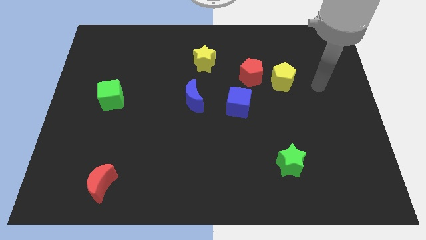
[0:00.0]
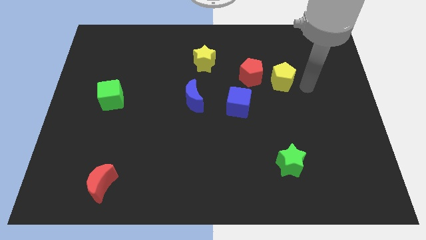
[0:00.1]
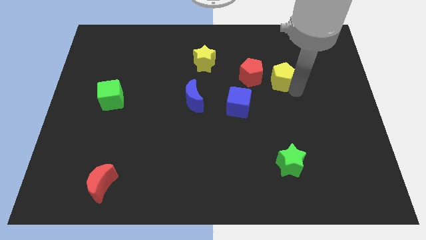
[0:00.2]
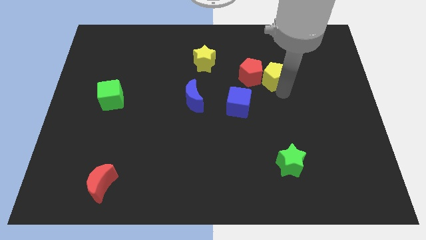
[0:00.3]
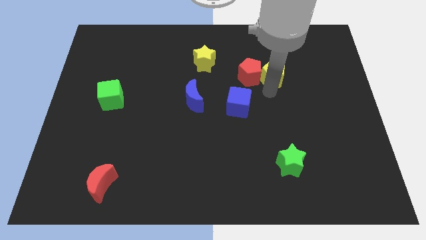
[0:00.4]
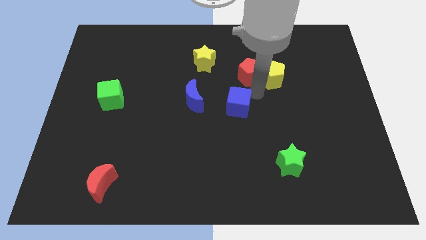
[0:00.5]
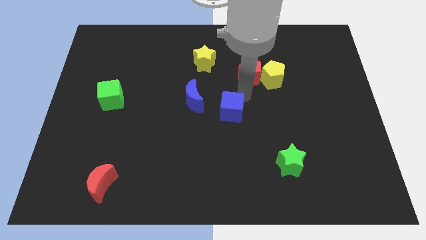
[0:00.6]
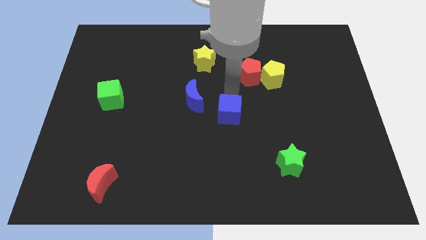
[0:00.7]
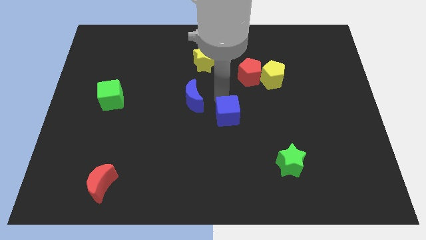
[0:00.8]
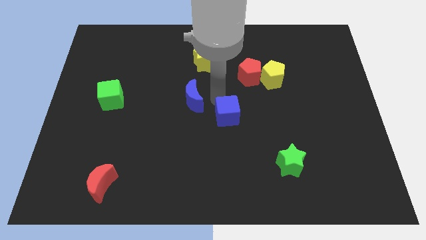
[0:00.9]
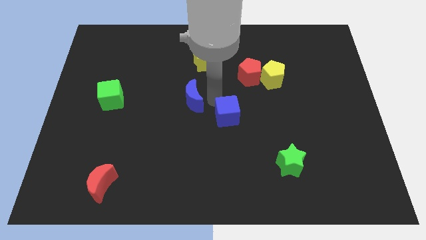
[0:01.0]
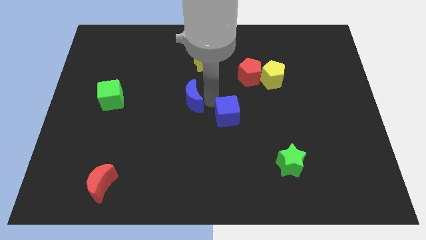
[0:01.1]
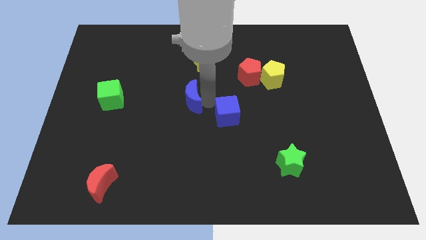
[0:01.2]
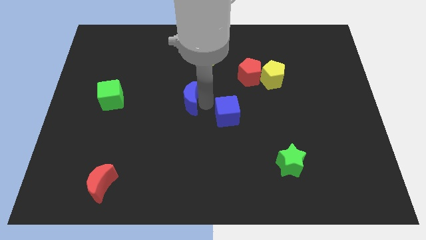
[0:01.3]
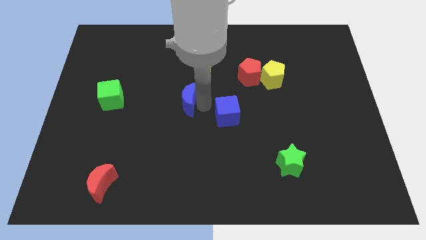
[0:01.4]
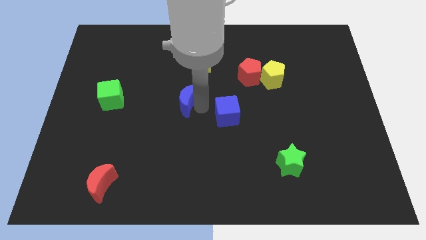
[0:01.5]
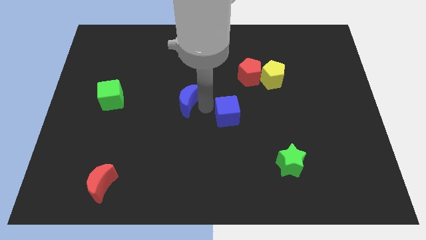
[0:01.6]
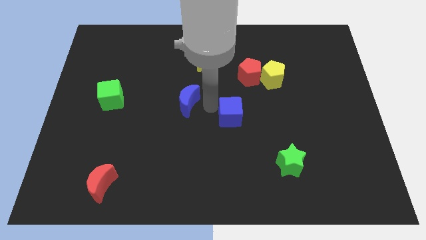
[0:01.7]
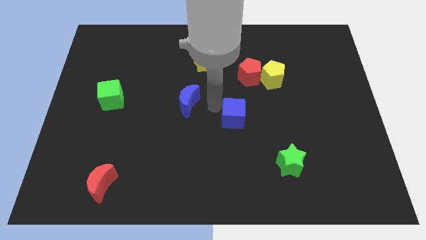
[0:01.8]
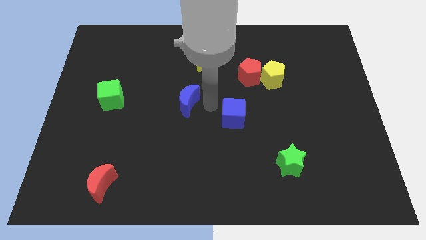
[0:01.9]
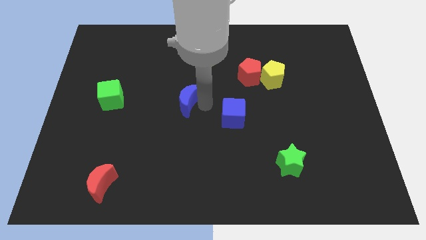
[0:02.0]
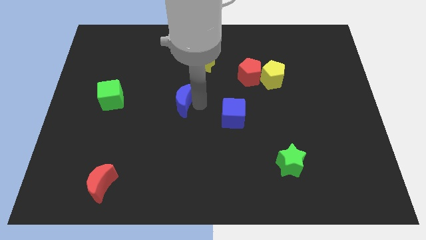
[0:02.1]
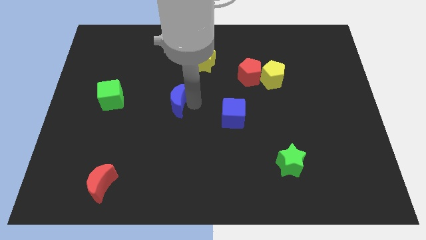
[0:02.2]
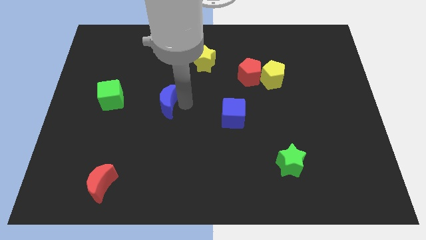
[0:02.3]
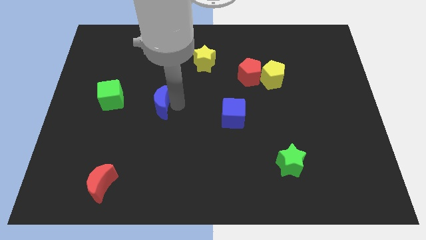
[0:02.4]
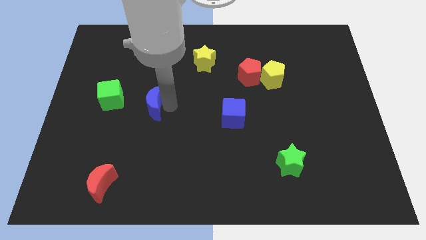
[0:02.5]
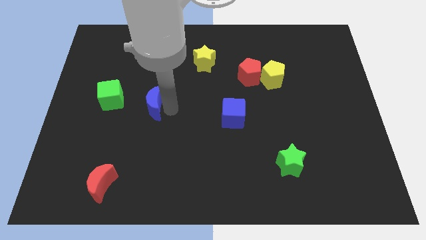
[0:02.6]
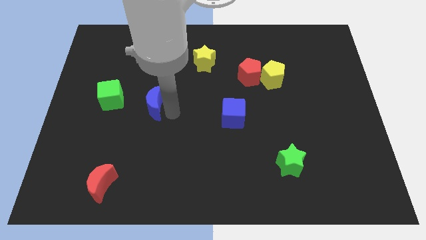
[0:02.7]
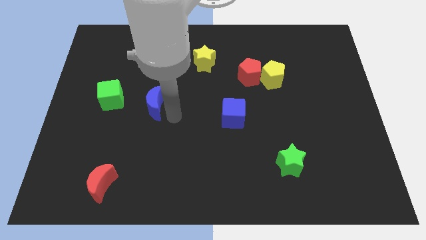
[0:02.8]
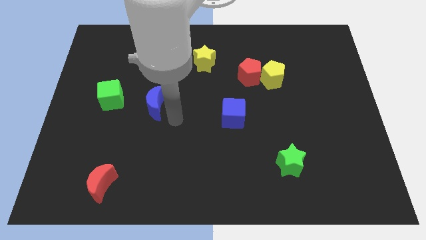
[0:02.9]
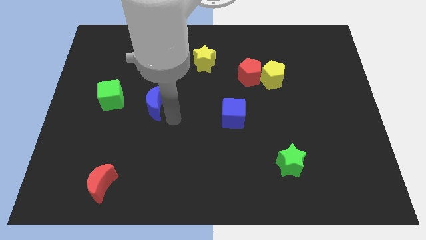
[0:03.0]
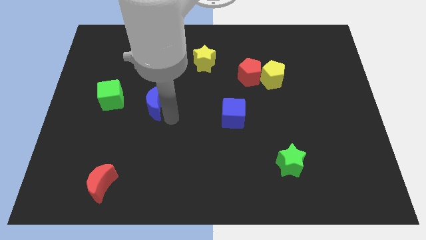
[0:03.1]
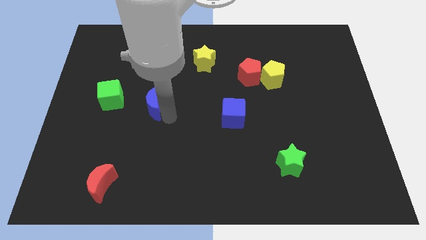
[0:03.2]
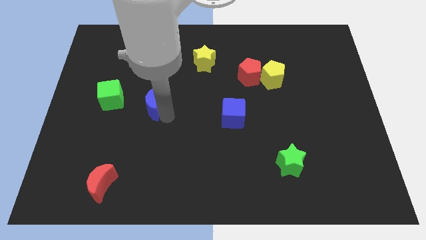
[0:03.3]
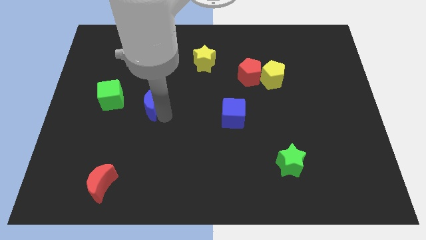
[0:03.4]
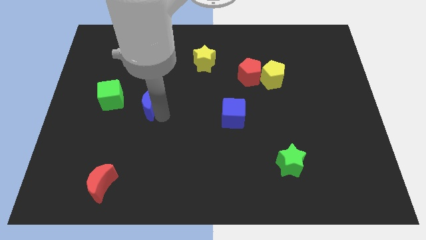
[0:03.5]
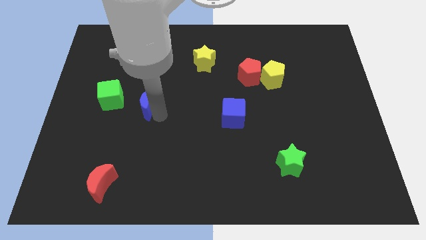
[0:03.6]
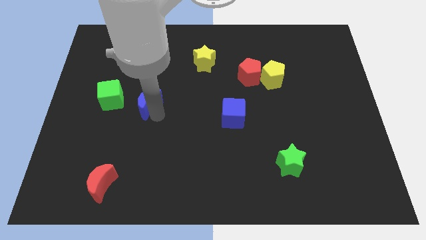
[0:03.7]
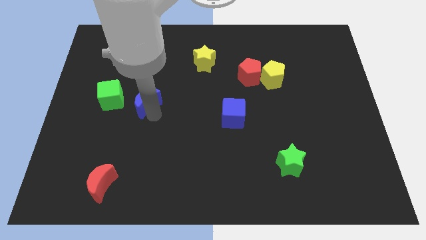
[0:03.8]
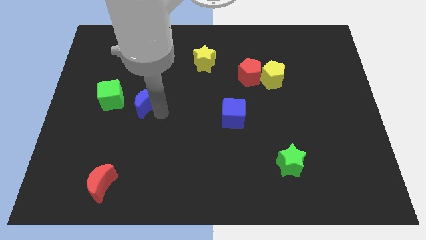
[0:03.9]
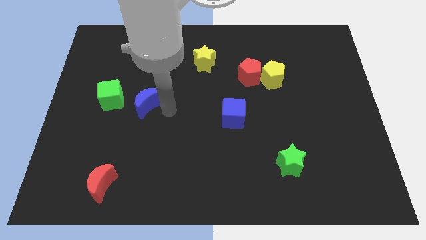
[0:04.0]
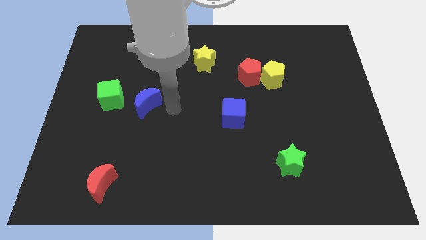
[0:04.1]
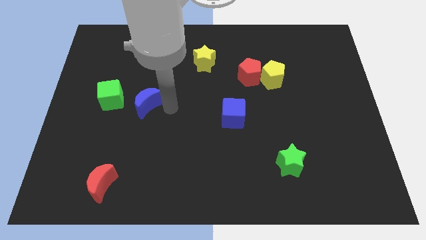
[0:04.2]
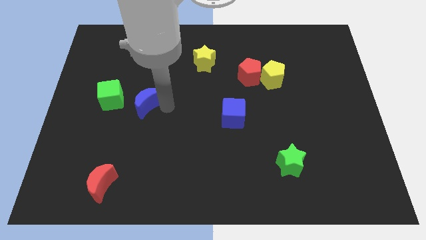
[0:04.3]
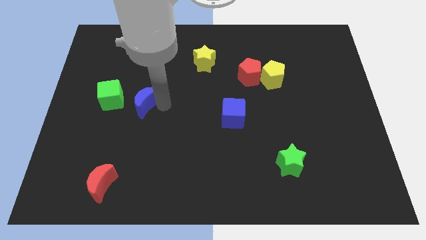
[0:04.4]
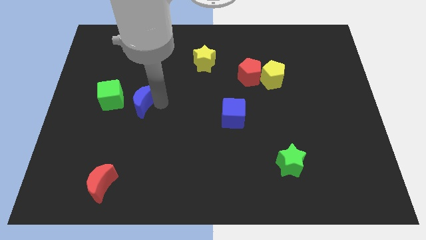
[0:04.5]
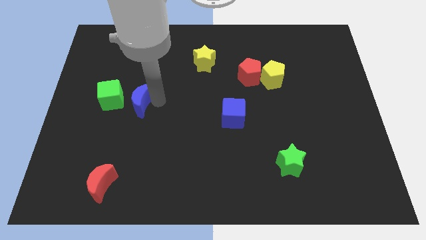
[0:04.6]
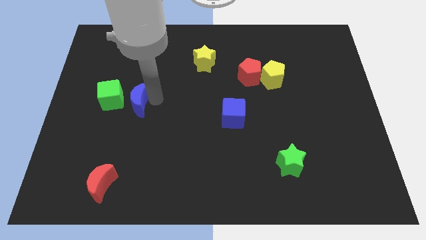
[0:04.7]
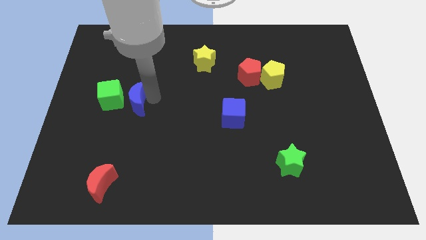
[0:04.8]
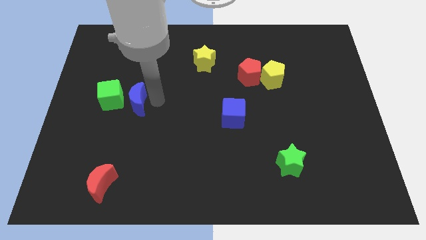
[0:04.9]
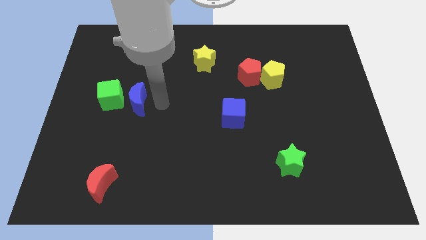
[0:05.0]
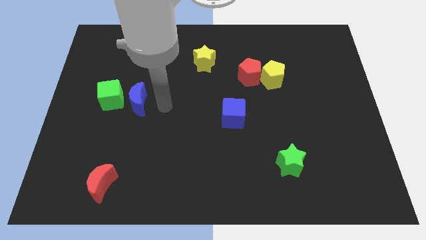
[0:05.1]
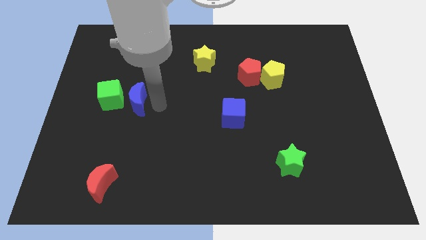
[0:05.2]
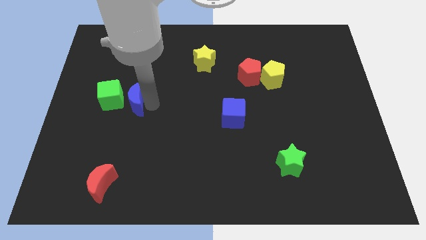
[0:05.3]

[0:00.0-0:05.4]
put the blue moon towards the green cube

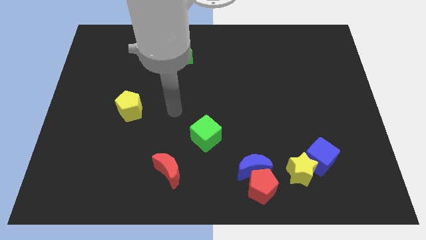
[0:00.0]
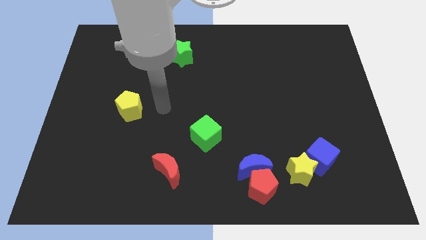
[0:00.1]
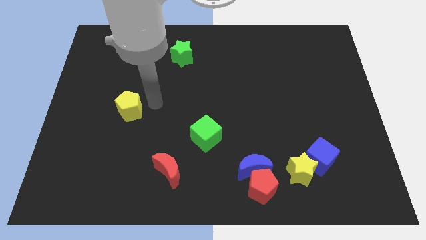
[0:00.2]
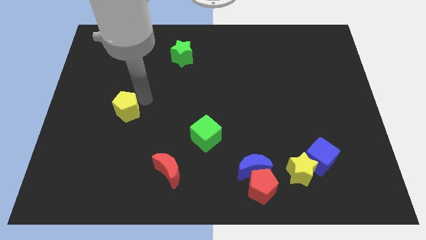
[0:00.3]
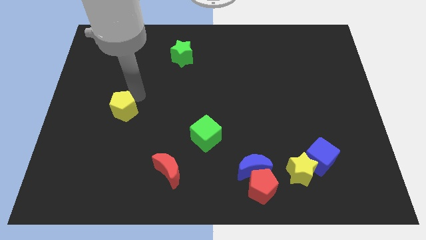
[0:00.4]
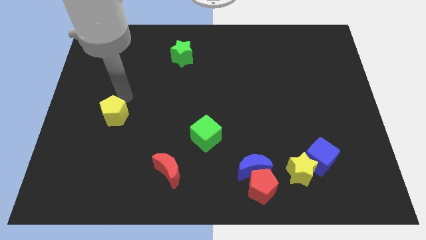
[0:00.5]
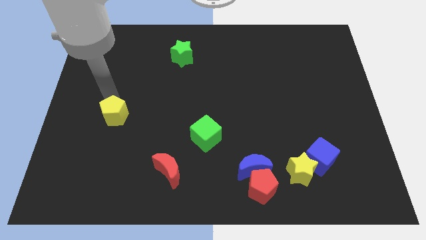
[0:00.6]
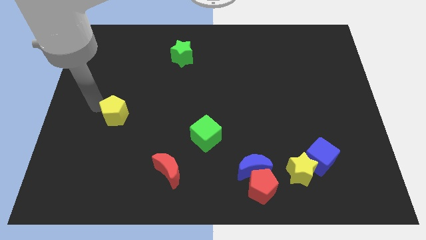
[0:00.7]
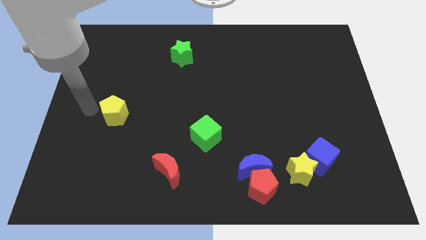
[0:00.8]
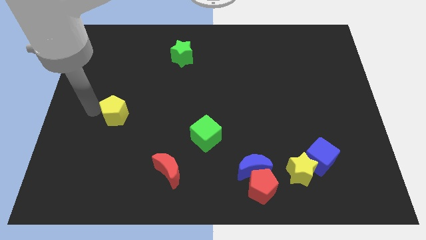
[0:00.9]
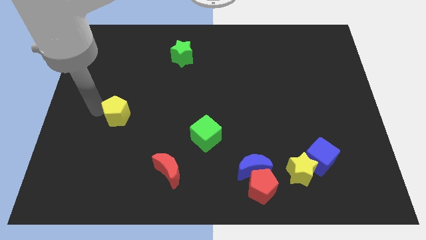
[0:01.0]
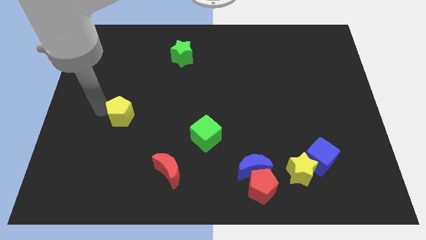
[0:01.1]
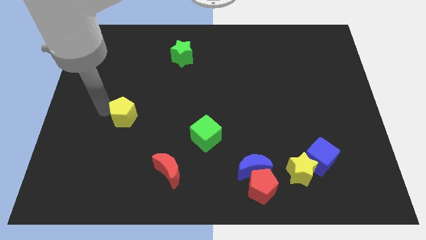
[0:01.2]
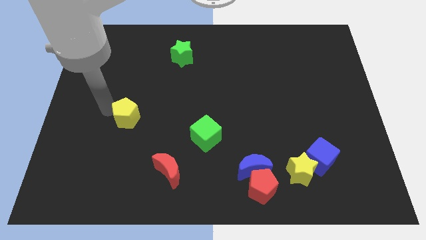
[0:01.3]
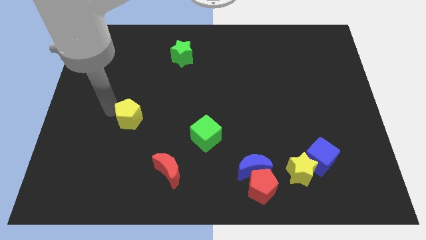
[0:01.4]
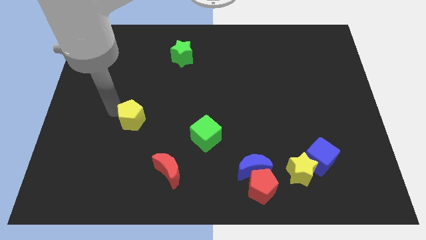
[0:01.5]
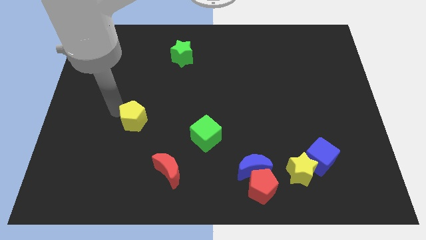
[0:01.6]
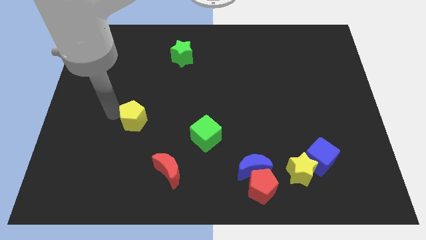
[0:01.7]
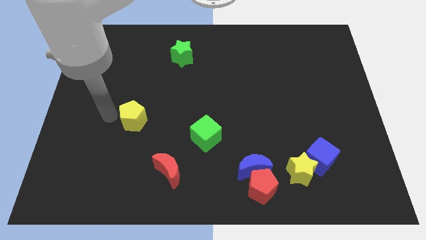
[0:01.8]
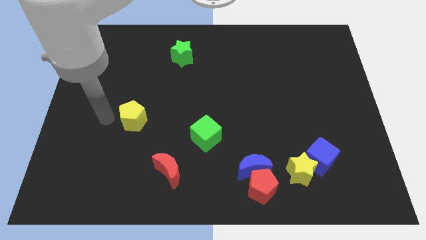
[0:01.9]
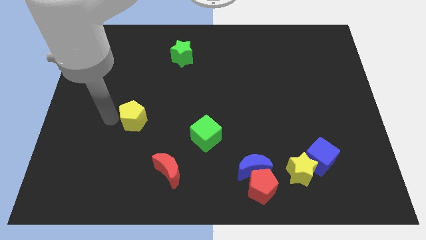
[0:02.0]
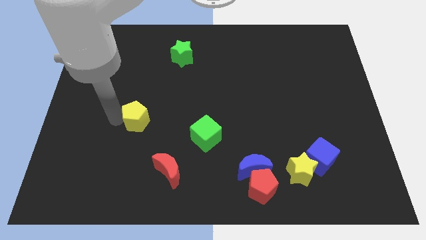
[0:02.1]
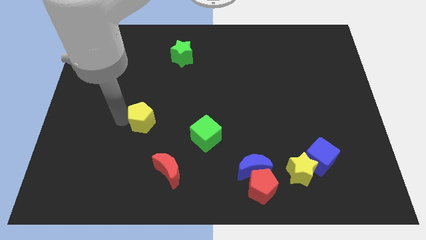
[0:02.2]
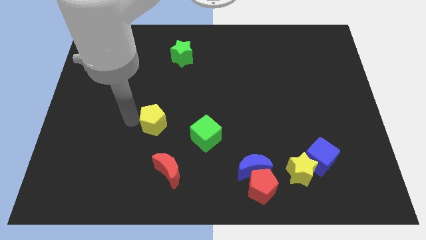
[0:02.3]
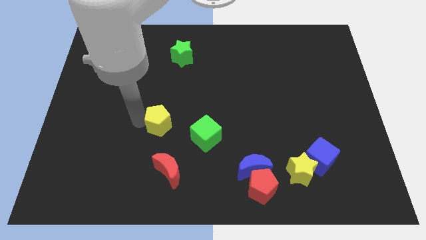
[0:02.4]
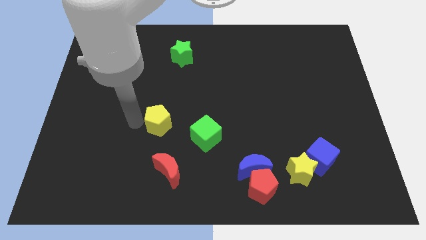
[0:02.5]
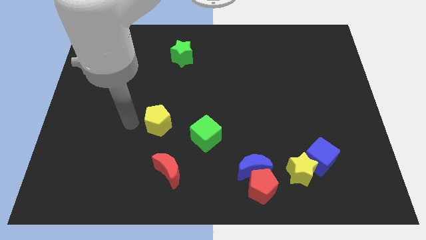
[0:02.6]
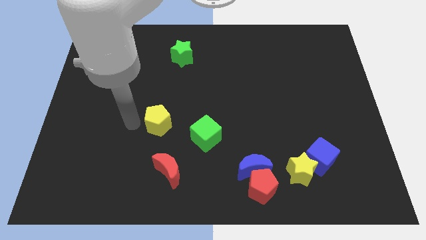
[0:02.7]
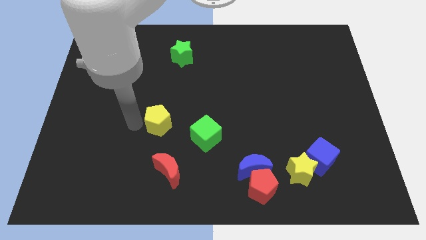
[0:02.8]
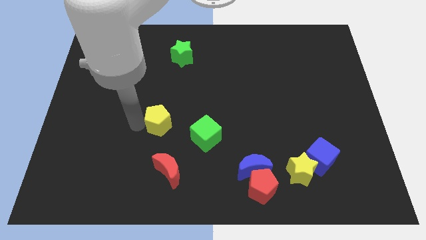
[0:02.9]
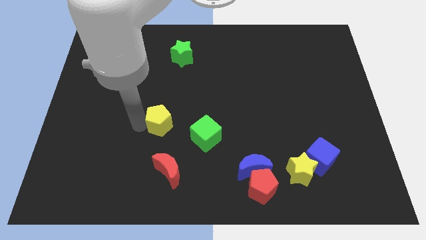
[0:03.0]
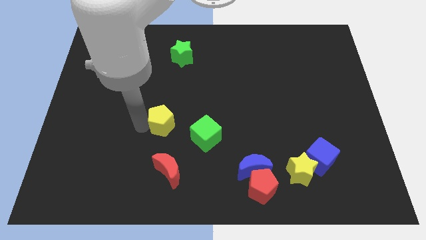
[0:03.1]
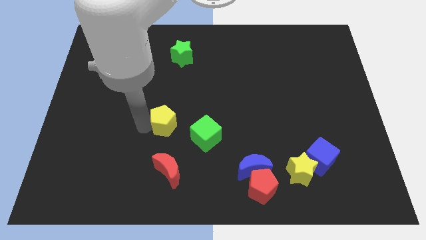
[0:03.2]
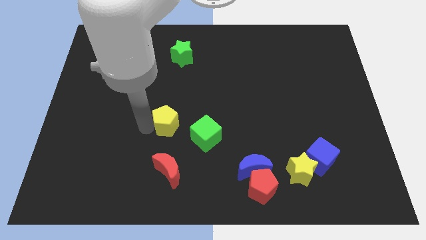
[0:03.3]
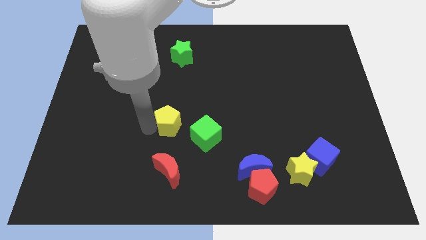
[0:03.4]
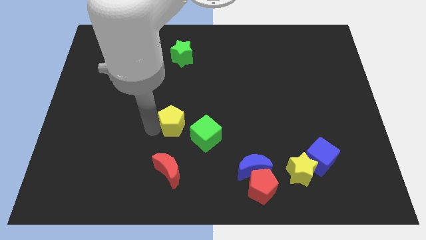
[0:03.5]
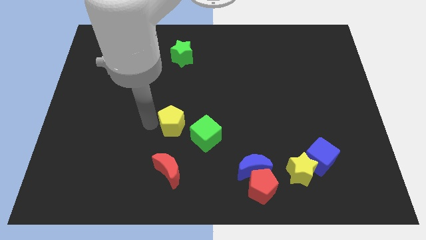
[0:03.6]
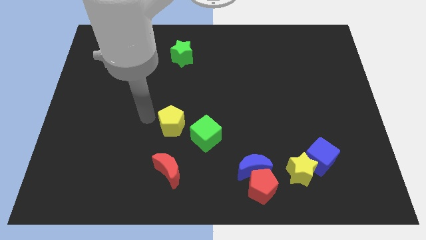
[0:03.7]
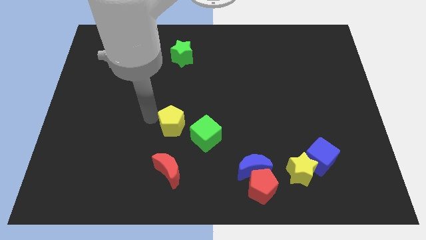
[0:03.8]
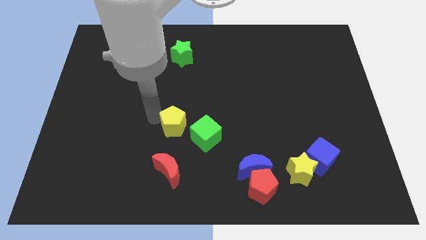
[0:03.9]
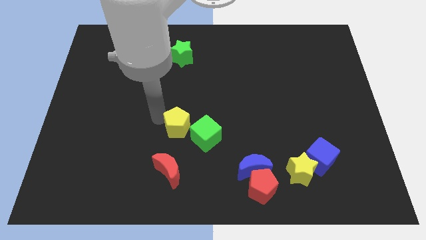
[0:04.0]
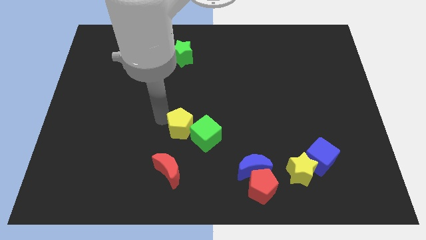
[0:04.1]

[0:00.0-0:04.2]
put the yellow pentagon next to the green cube
